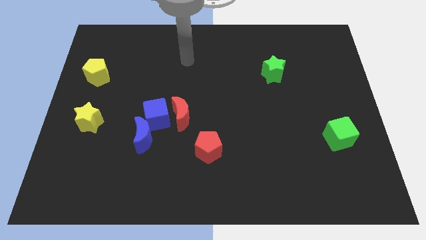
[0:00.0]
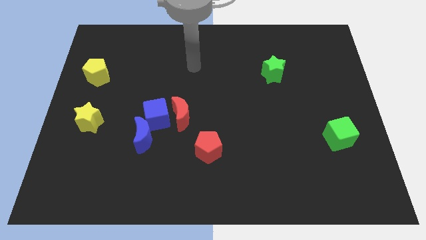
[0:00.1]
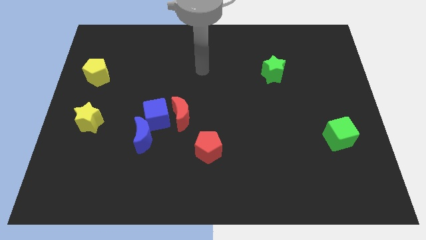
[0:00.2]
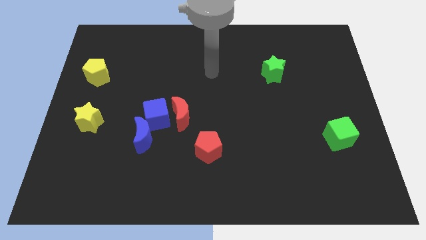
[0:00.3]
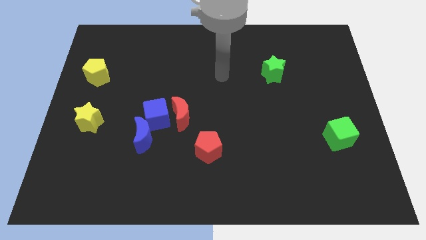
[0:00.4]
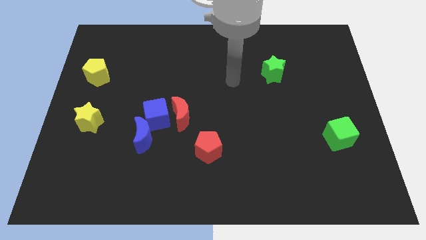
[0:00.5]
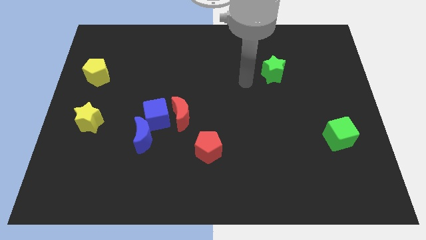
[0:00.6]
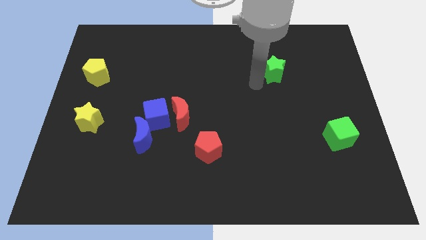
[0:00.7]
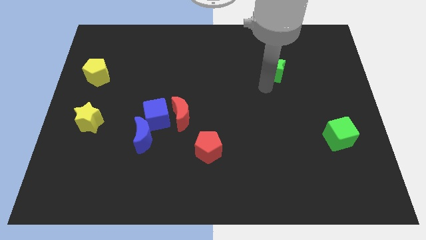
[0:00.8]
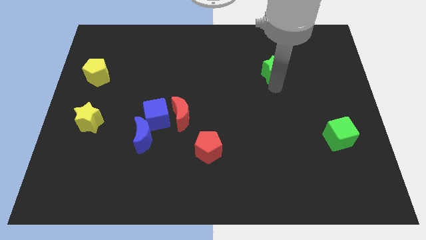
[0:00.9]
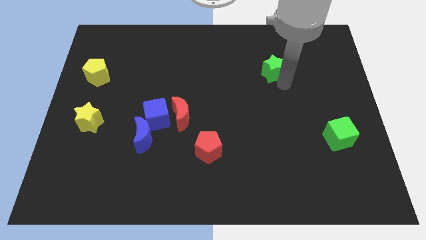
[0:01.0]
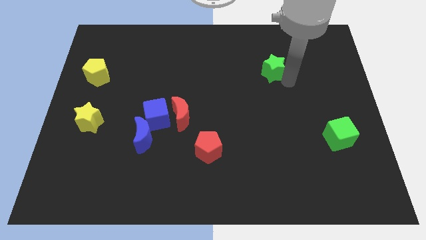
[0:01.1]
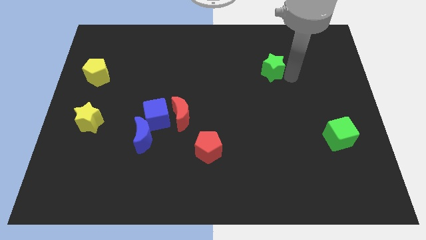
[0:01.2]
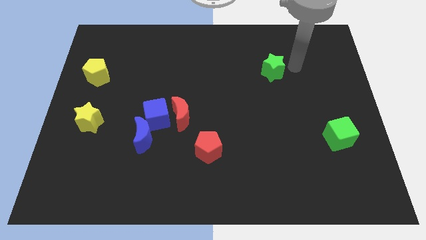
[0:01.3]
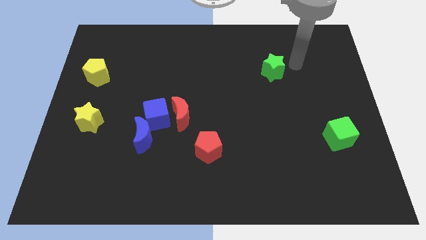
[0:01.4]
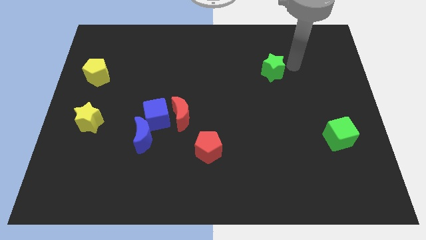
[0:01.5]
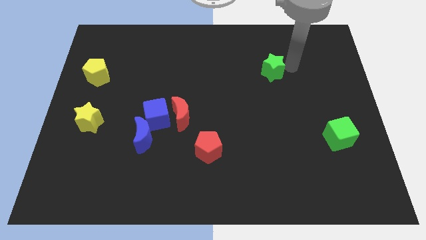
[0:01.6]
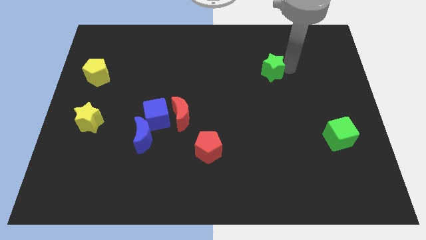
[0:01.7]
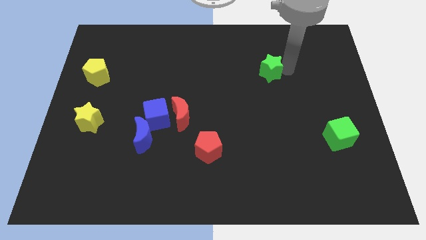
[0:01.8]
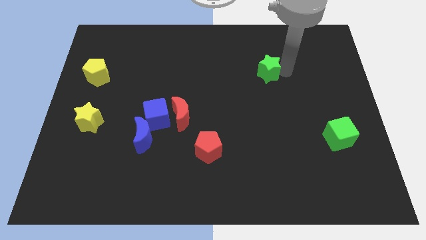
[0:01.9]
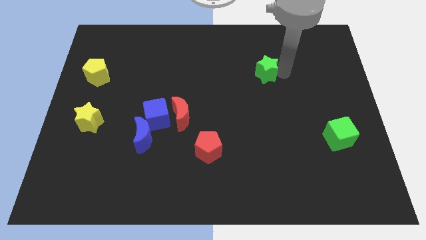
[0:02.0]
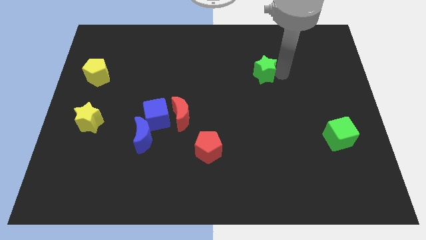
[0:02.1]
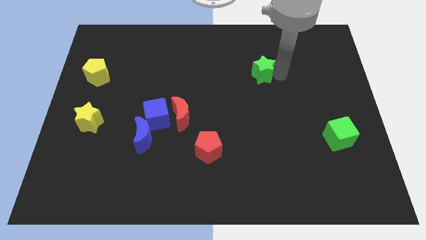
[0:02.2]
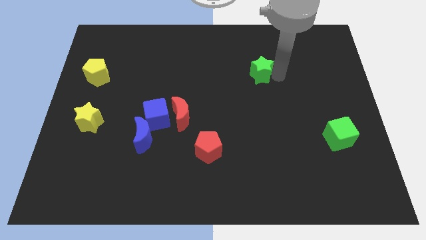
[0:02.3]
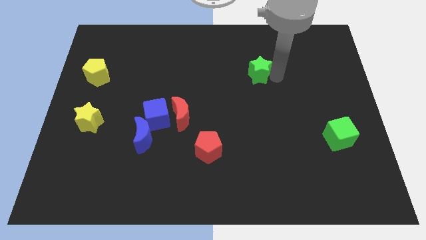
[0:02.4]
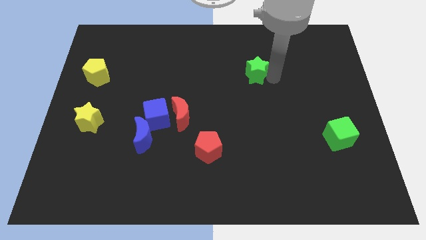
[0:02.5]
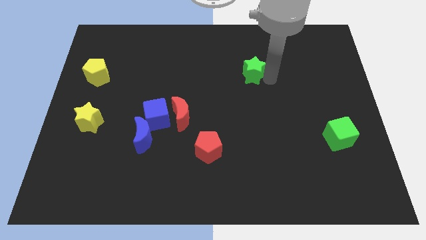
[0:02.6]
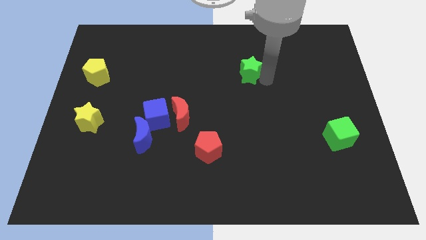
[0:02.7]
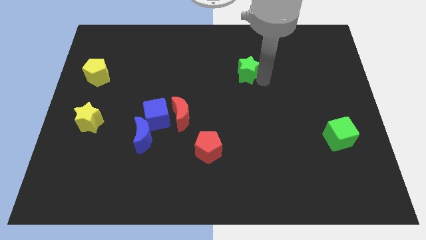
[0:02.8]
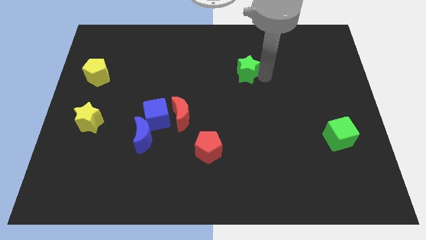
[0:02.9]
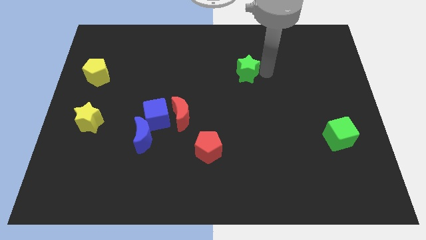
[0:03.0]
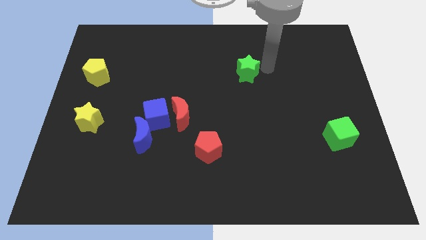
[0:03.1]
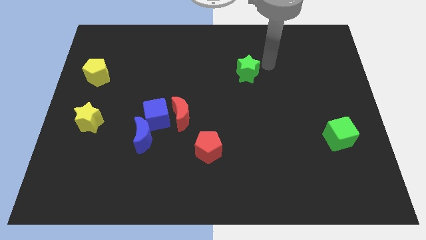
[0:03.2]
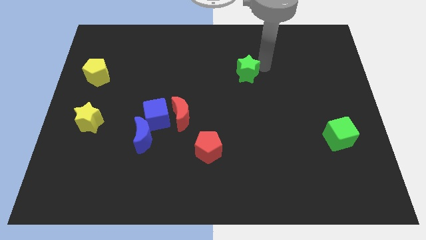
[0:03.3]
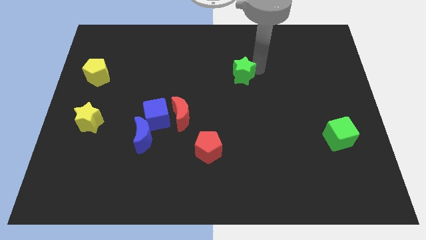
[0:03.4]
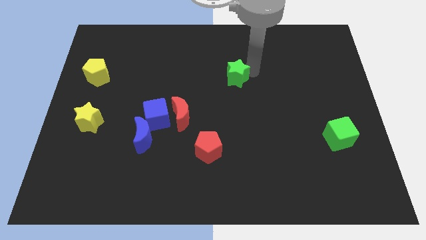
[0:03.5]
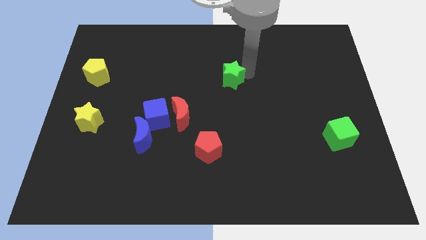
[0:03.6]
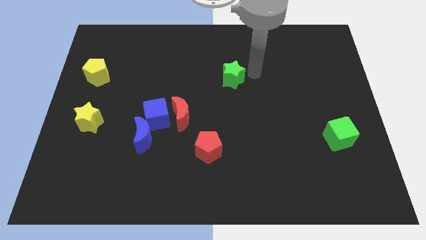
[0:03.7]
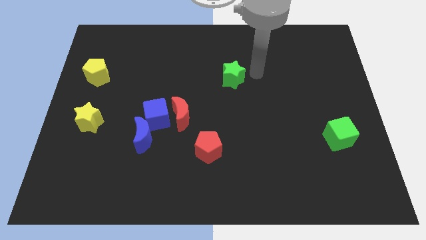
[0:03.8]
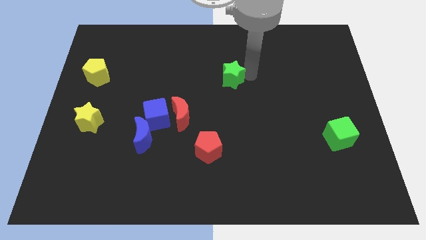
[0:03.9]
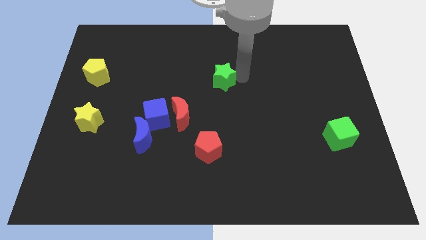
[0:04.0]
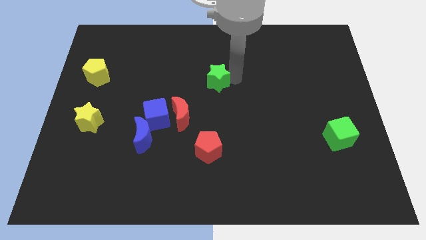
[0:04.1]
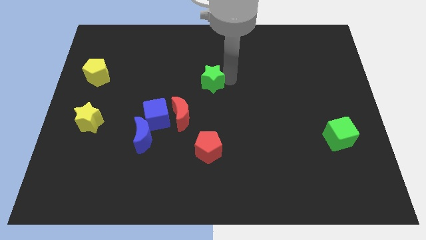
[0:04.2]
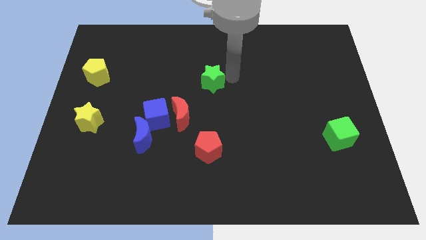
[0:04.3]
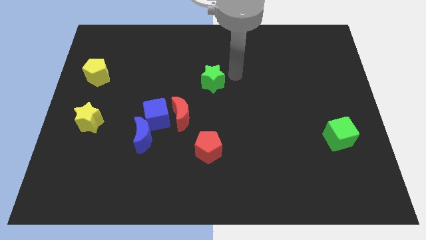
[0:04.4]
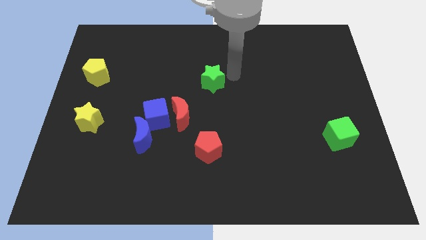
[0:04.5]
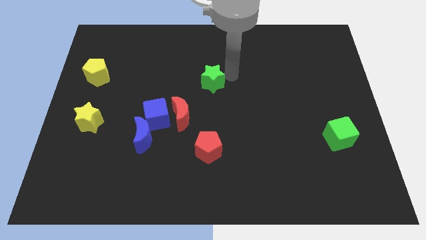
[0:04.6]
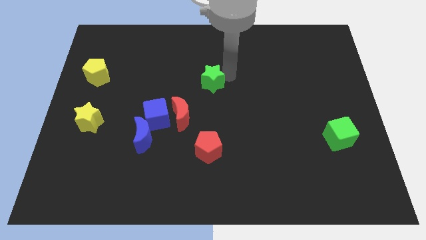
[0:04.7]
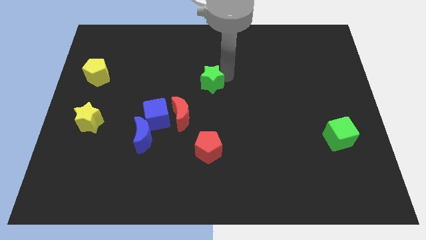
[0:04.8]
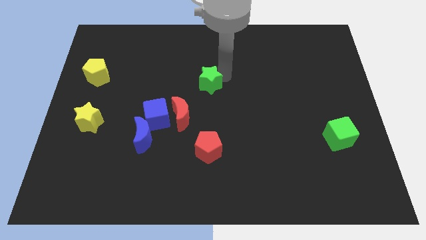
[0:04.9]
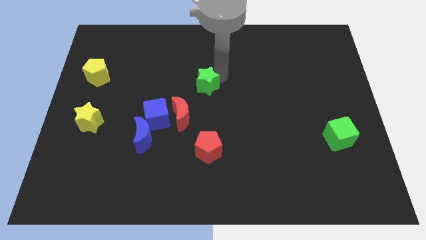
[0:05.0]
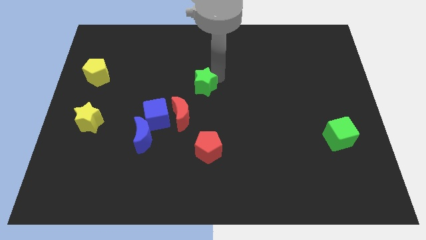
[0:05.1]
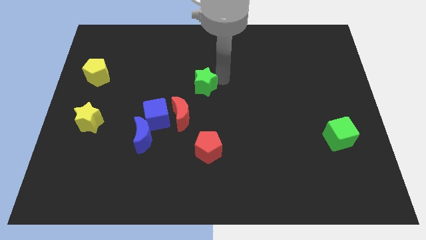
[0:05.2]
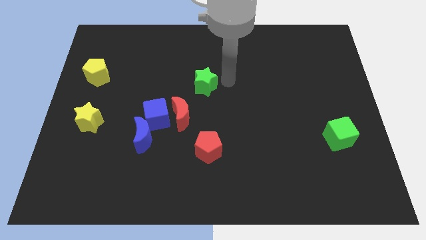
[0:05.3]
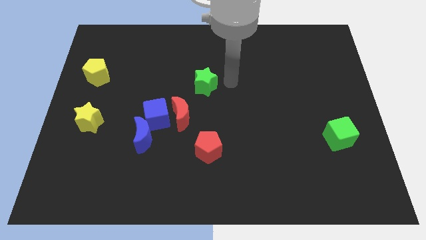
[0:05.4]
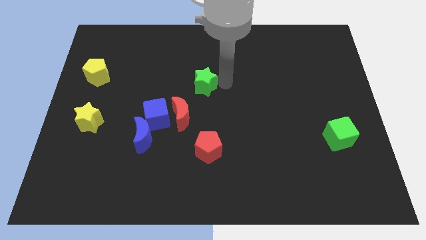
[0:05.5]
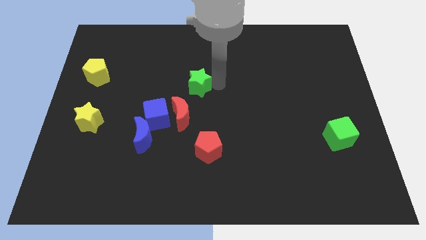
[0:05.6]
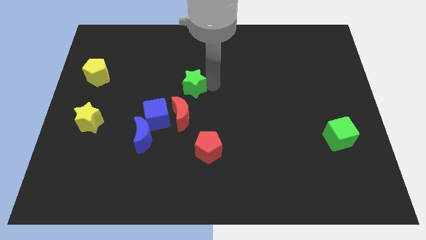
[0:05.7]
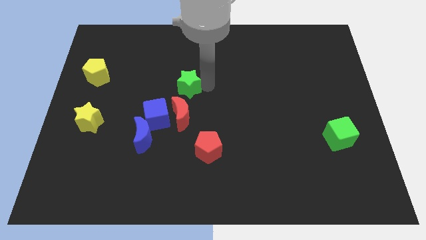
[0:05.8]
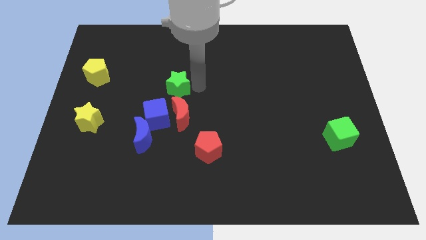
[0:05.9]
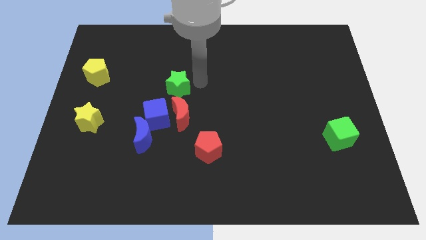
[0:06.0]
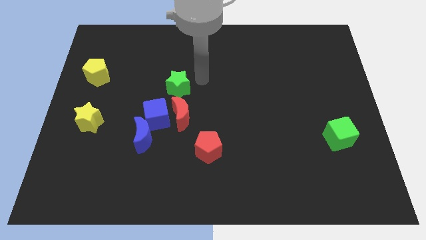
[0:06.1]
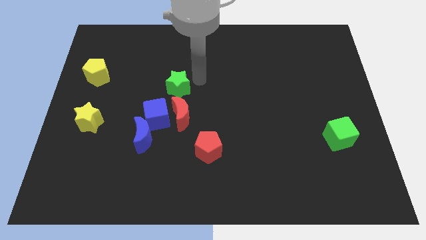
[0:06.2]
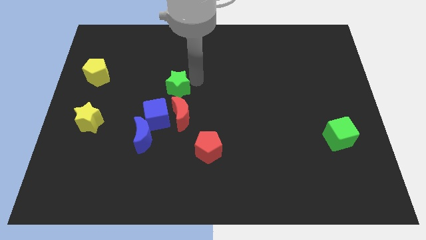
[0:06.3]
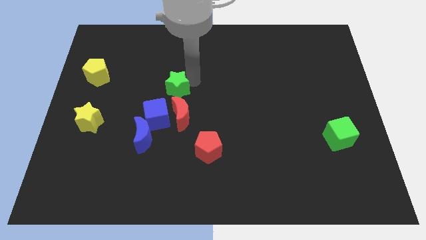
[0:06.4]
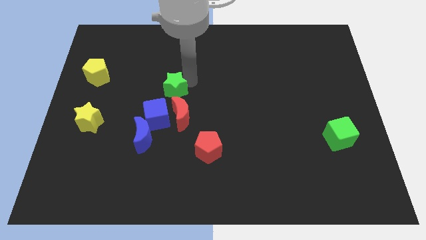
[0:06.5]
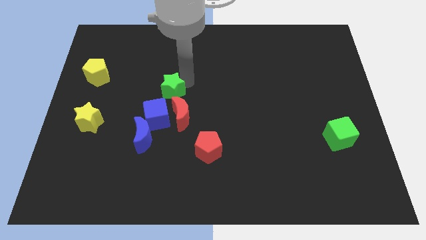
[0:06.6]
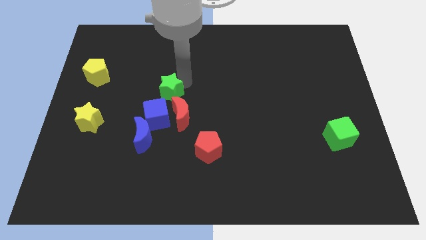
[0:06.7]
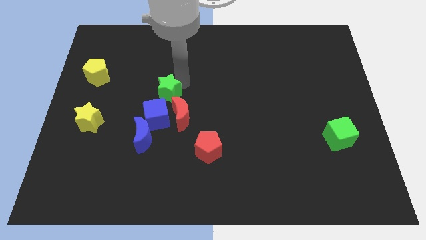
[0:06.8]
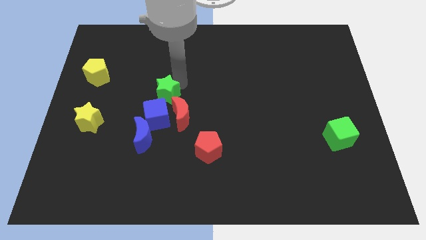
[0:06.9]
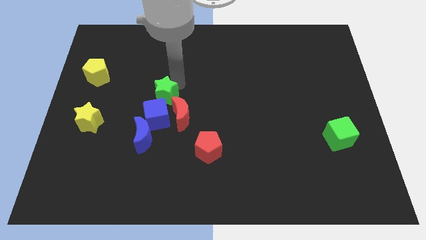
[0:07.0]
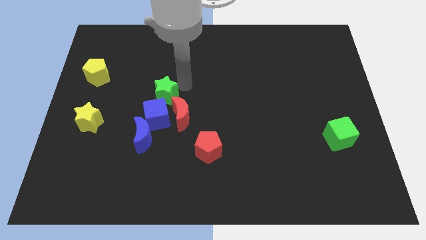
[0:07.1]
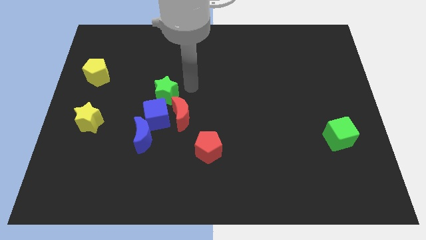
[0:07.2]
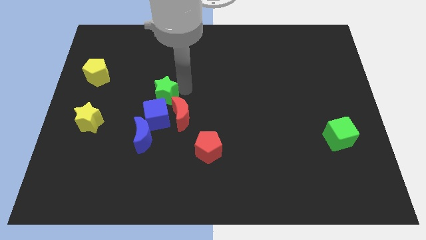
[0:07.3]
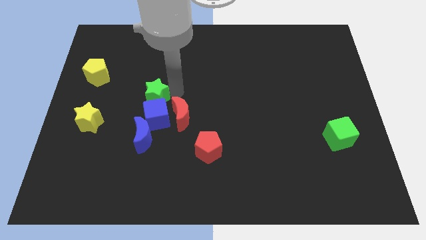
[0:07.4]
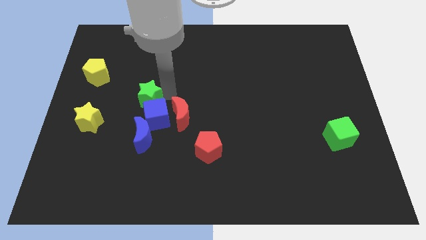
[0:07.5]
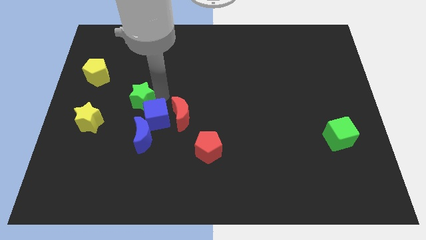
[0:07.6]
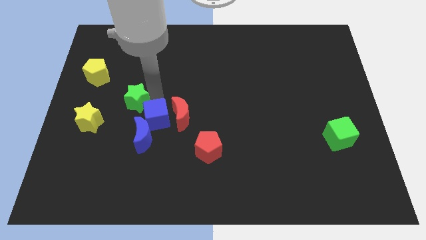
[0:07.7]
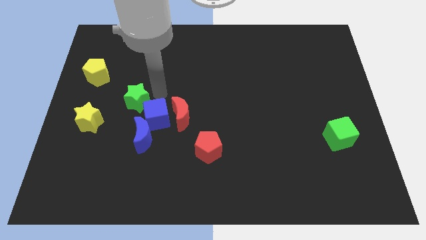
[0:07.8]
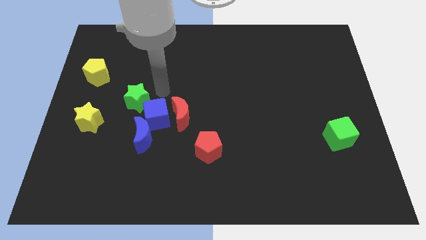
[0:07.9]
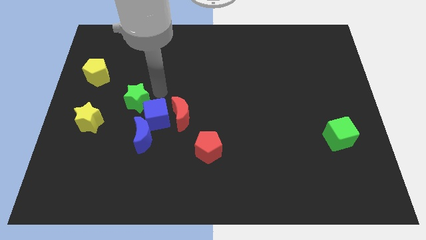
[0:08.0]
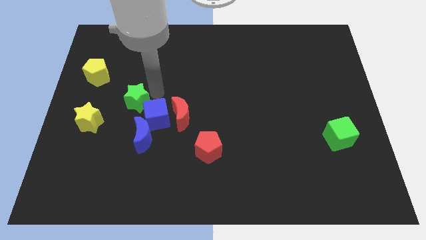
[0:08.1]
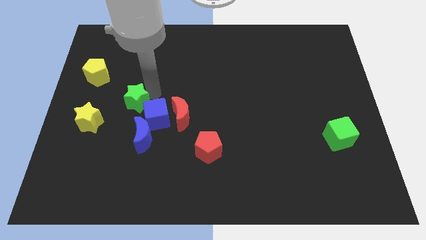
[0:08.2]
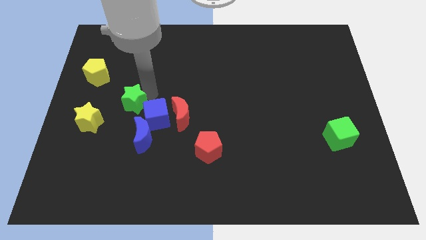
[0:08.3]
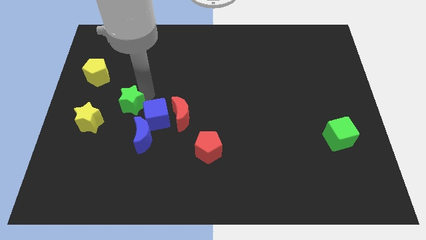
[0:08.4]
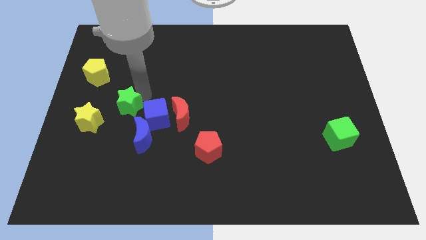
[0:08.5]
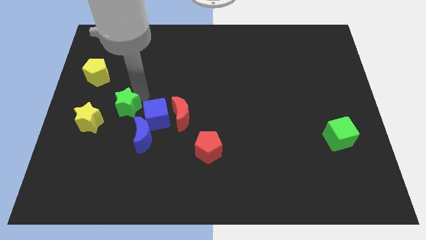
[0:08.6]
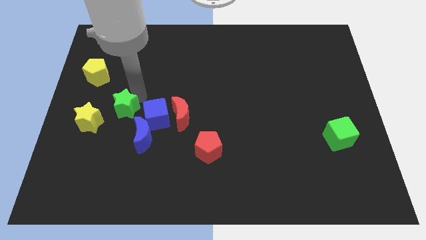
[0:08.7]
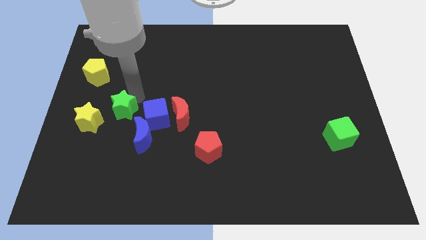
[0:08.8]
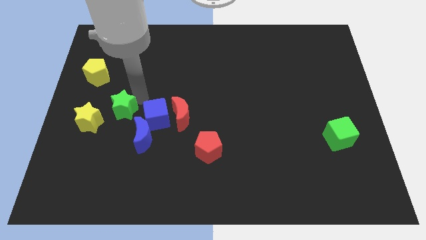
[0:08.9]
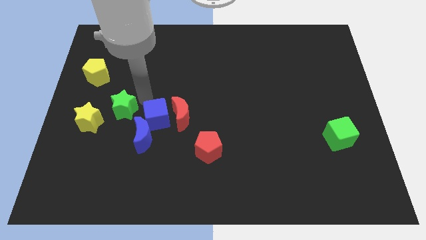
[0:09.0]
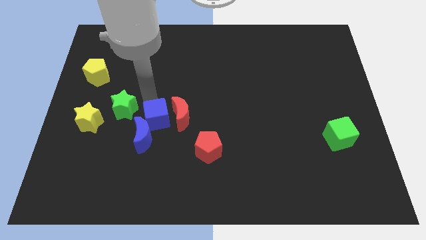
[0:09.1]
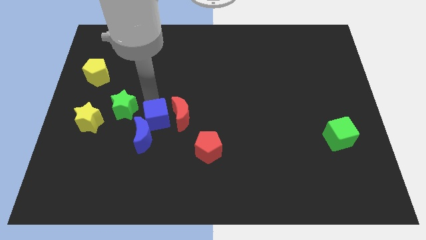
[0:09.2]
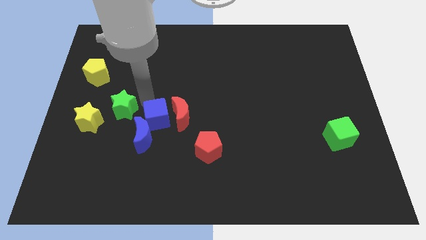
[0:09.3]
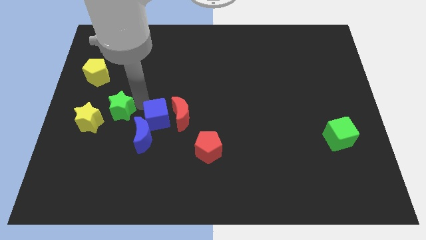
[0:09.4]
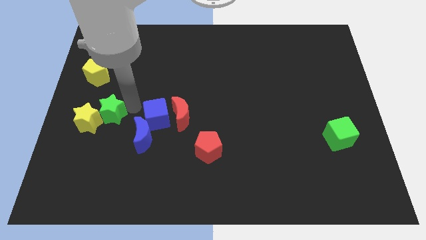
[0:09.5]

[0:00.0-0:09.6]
push the green star next to the yellow star
